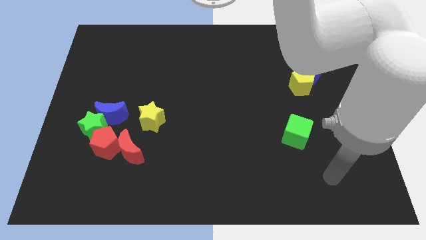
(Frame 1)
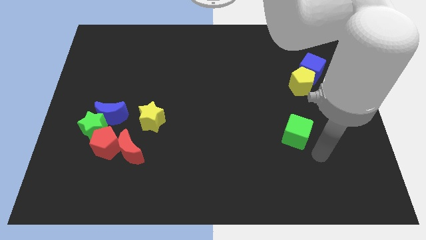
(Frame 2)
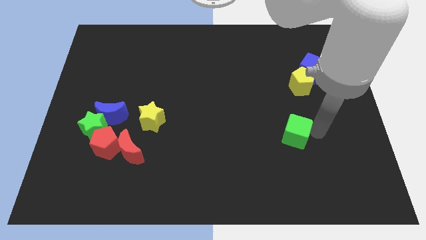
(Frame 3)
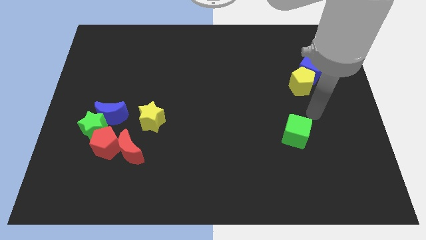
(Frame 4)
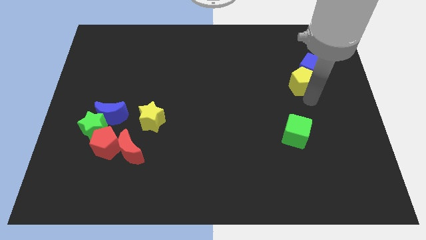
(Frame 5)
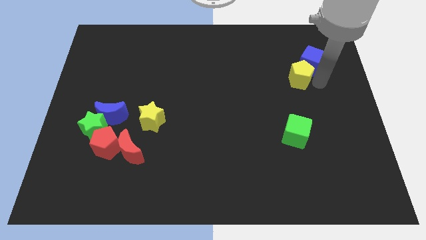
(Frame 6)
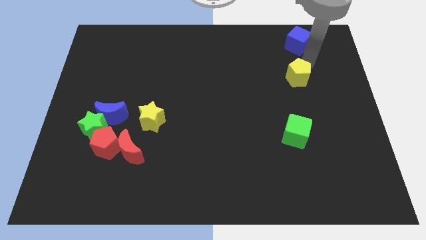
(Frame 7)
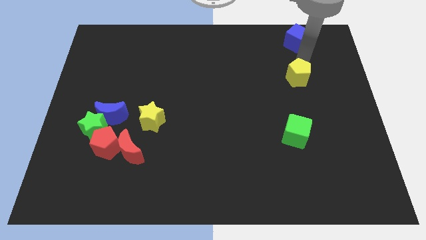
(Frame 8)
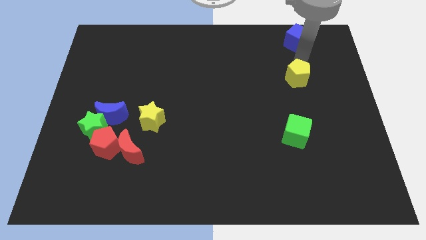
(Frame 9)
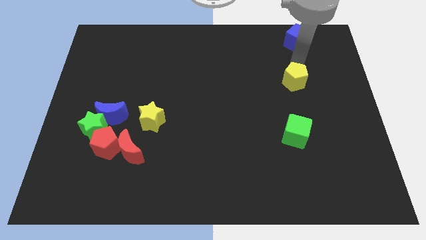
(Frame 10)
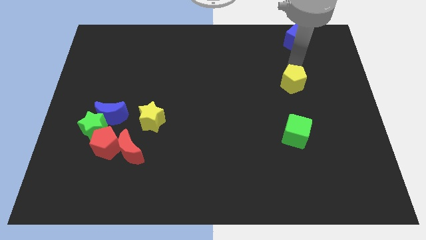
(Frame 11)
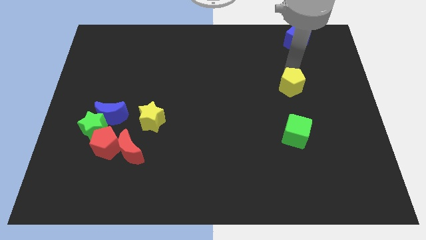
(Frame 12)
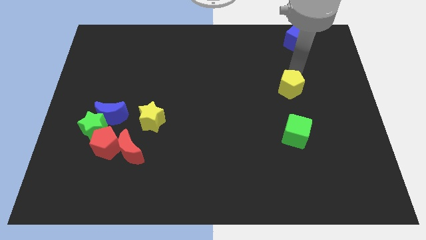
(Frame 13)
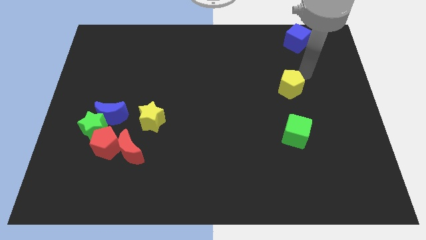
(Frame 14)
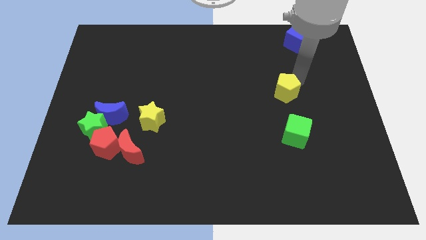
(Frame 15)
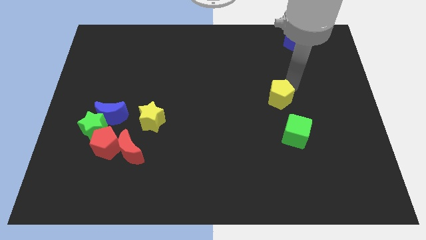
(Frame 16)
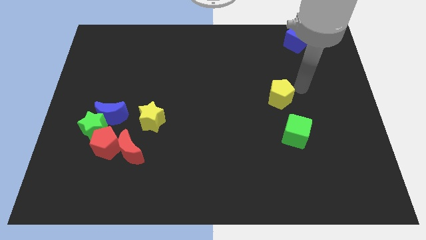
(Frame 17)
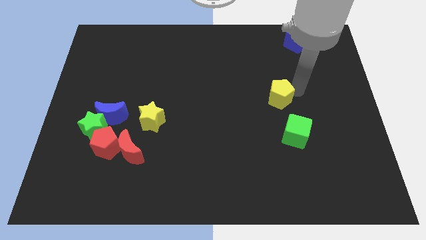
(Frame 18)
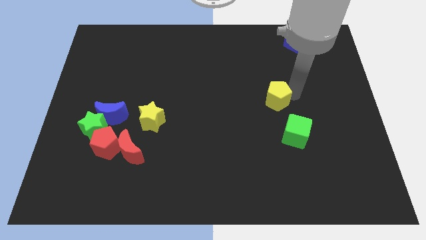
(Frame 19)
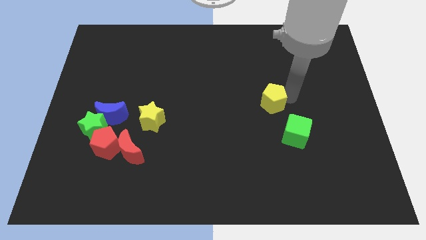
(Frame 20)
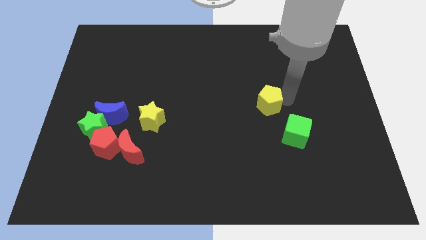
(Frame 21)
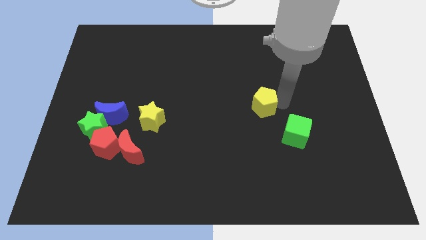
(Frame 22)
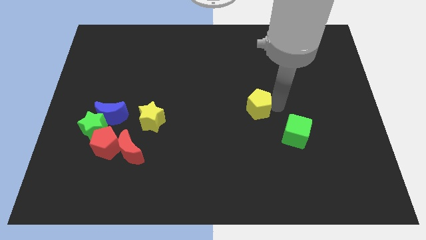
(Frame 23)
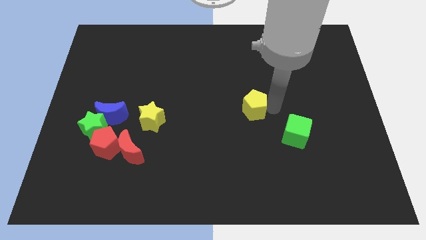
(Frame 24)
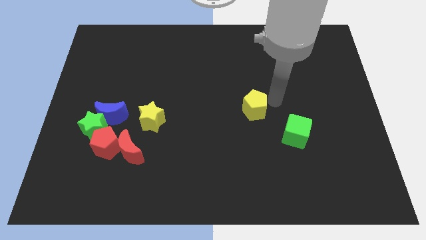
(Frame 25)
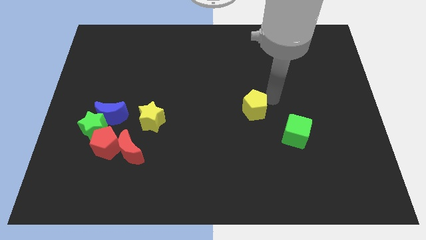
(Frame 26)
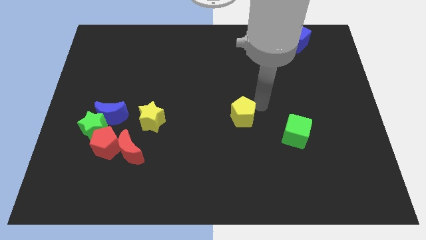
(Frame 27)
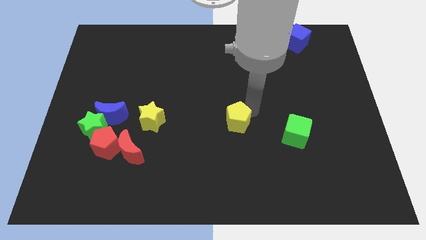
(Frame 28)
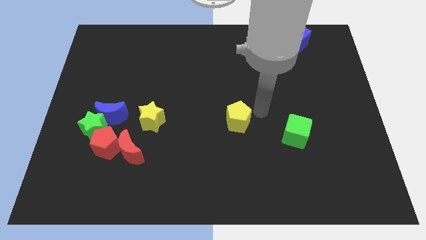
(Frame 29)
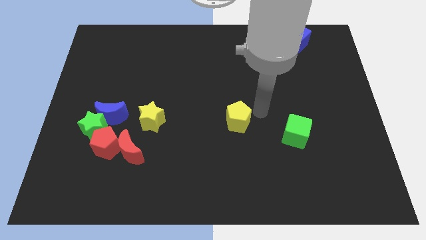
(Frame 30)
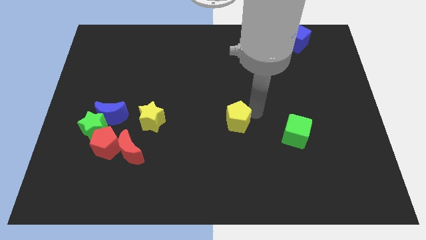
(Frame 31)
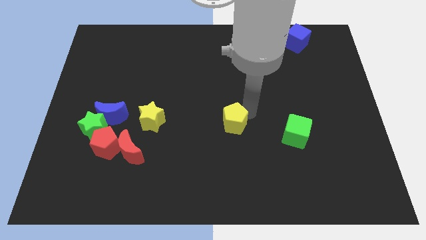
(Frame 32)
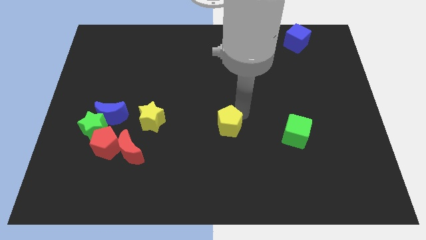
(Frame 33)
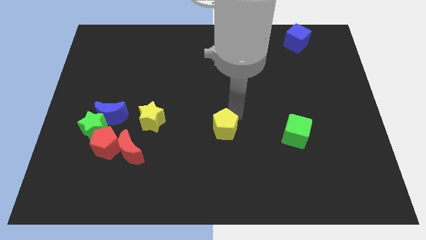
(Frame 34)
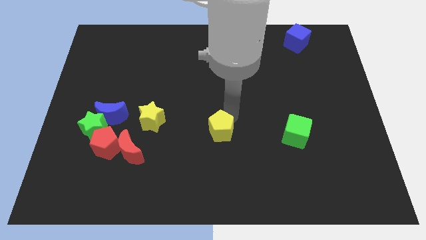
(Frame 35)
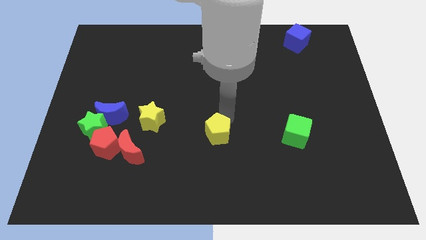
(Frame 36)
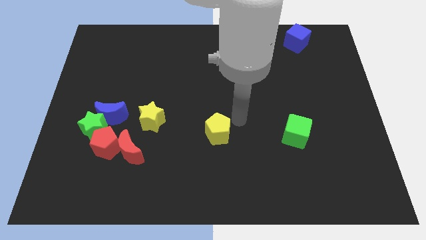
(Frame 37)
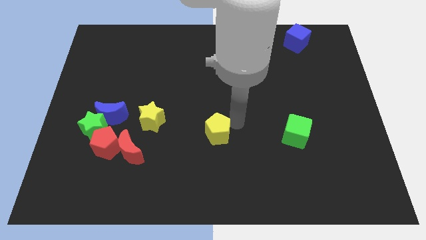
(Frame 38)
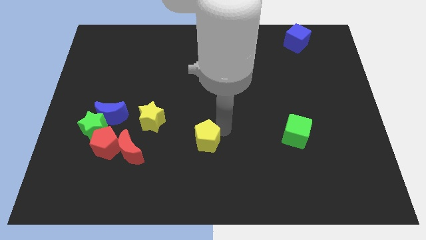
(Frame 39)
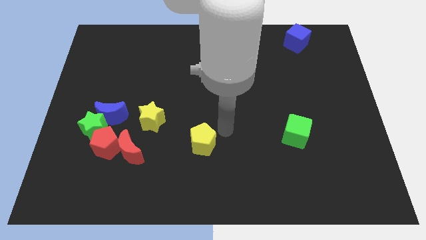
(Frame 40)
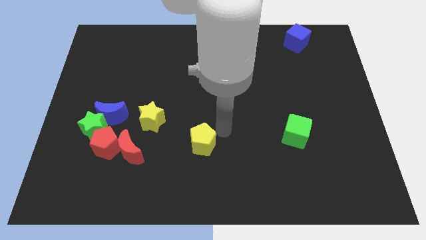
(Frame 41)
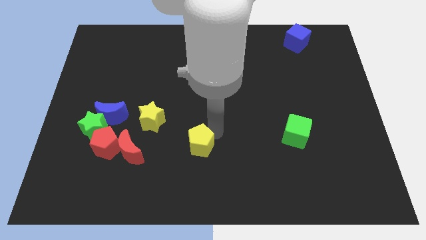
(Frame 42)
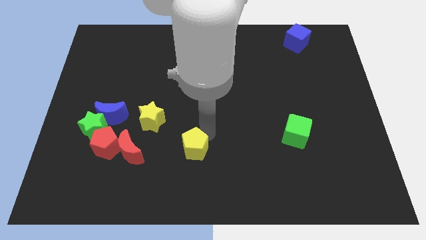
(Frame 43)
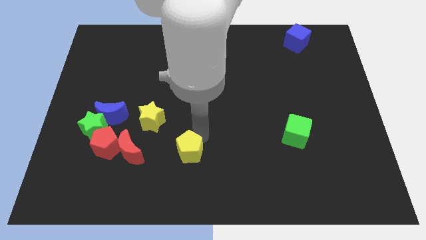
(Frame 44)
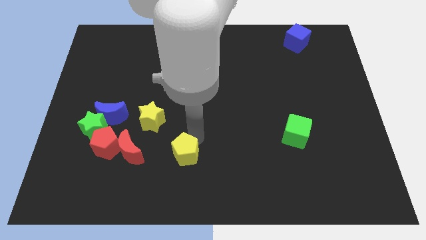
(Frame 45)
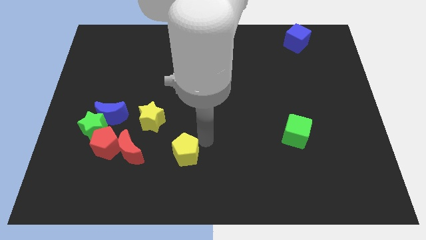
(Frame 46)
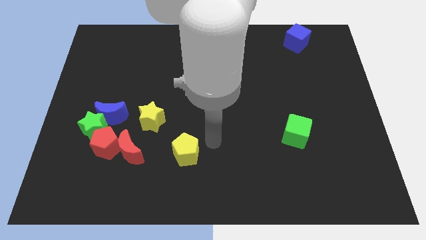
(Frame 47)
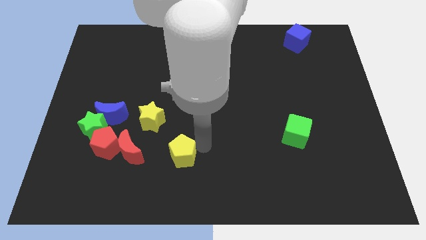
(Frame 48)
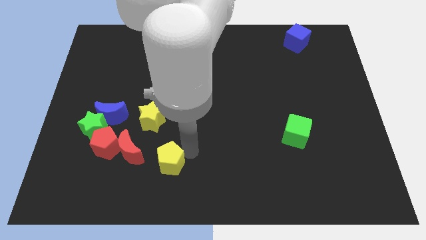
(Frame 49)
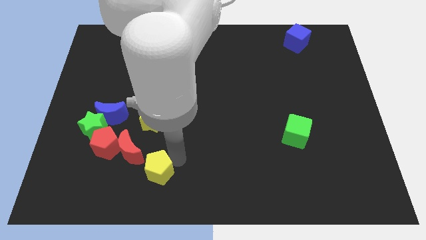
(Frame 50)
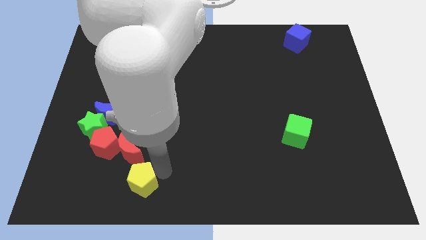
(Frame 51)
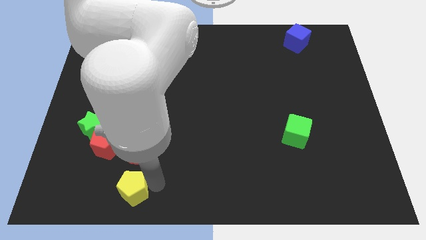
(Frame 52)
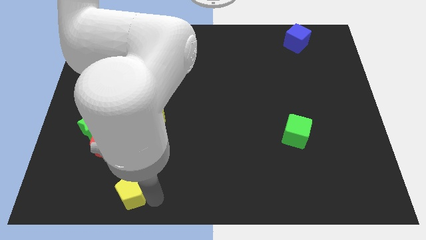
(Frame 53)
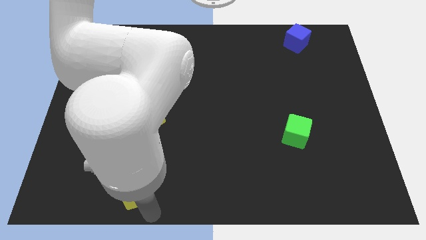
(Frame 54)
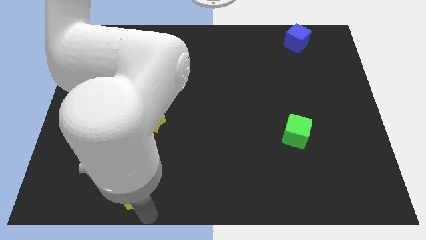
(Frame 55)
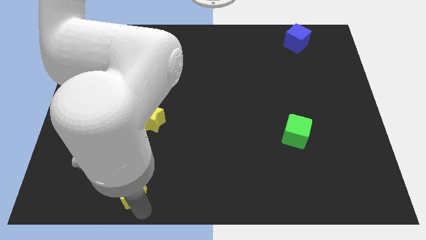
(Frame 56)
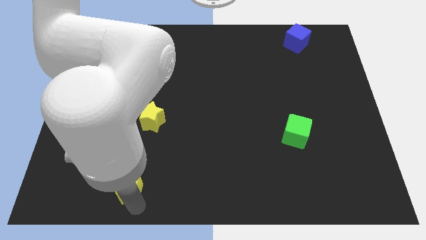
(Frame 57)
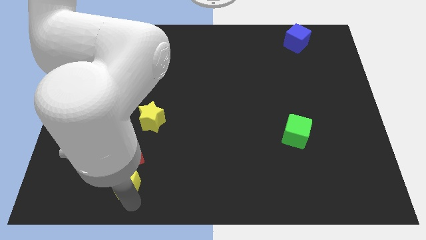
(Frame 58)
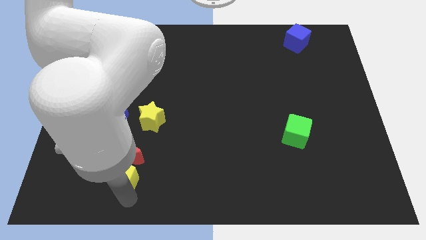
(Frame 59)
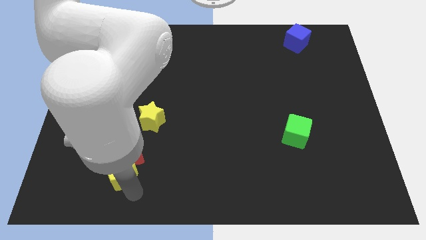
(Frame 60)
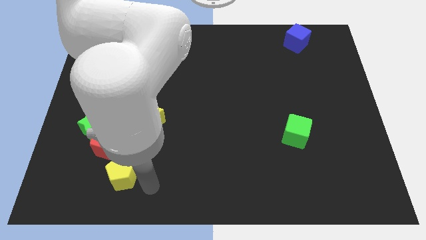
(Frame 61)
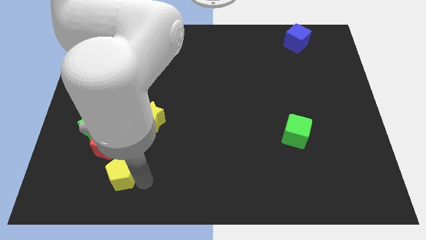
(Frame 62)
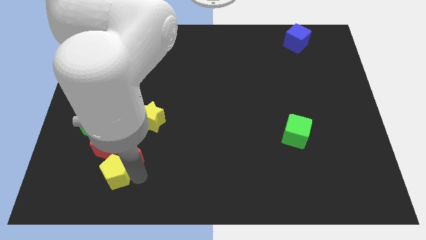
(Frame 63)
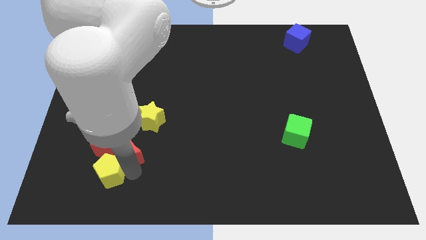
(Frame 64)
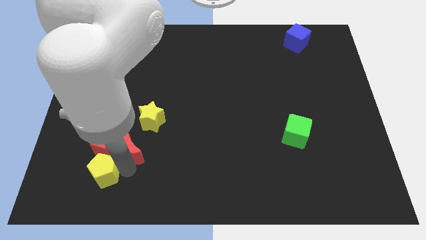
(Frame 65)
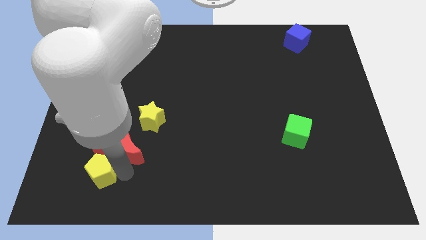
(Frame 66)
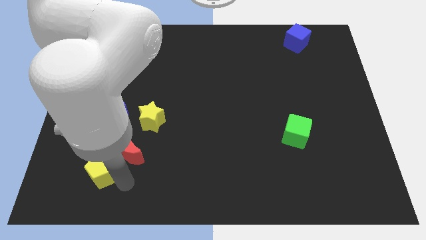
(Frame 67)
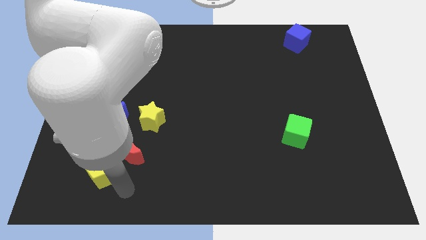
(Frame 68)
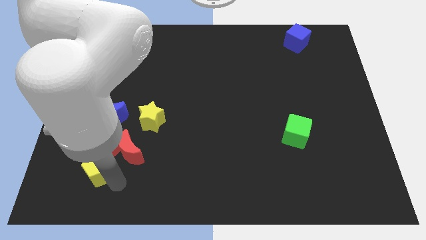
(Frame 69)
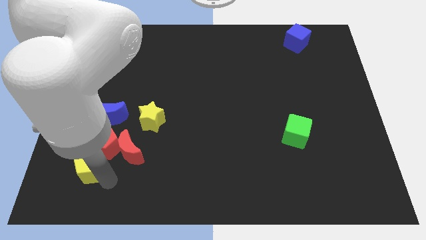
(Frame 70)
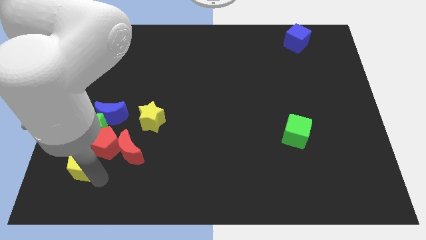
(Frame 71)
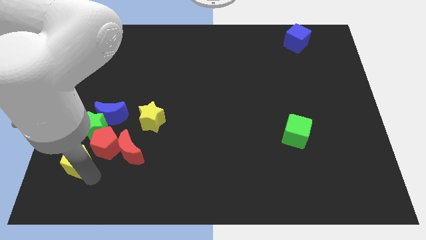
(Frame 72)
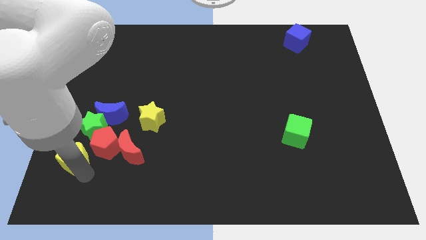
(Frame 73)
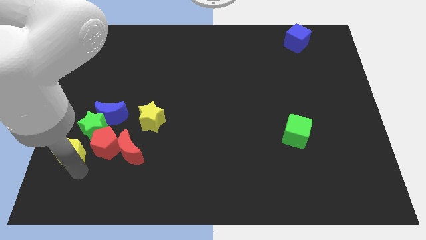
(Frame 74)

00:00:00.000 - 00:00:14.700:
move the yellow pentagon to the bottom left side of the blue moon
